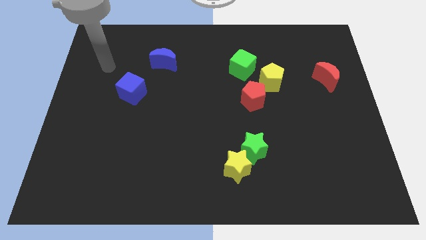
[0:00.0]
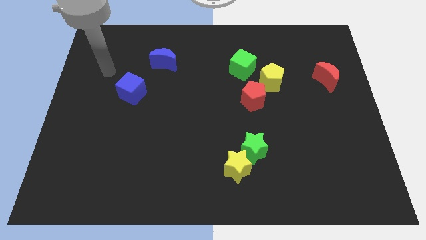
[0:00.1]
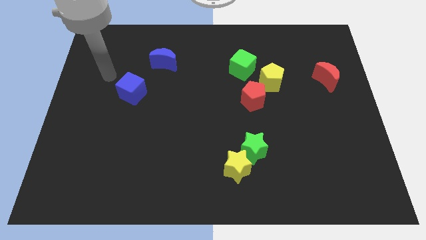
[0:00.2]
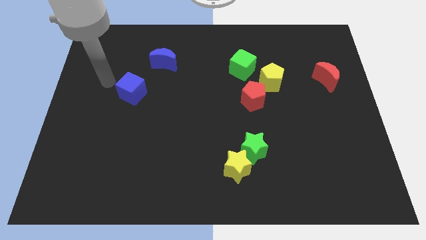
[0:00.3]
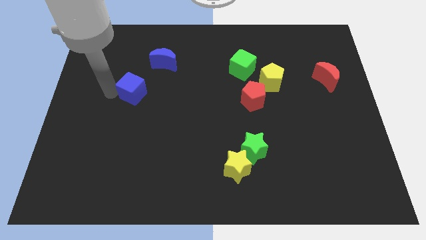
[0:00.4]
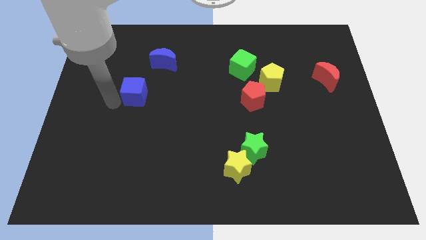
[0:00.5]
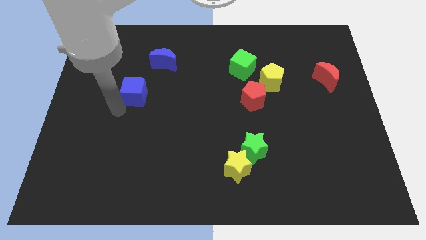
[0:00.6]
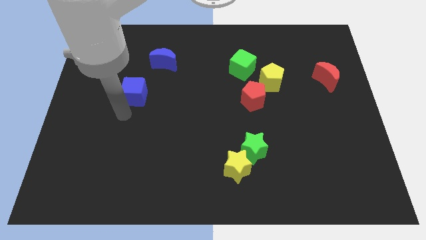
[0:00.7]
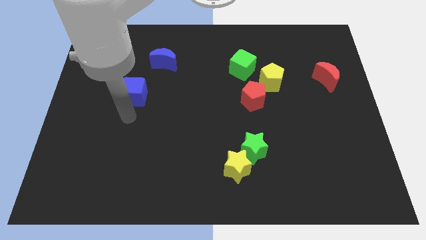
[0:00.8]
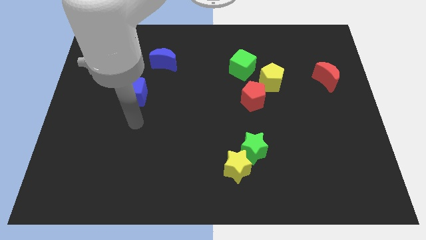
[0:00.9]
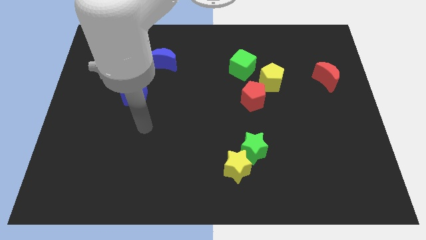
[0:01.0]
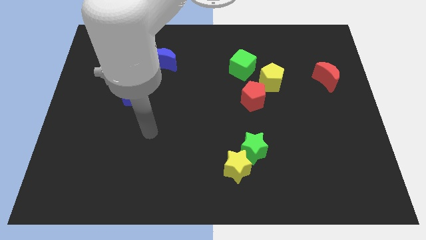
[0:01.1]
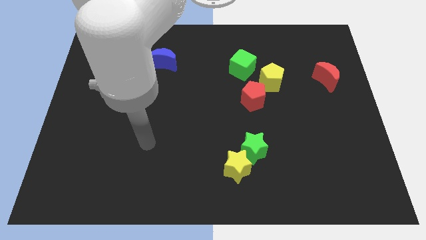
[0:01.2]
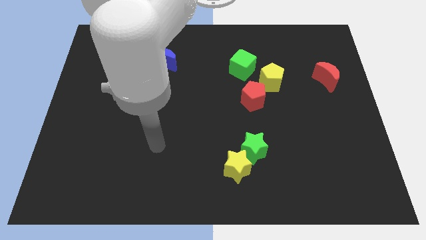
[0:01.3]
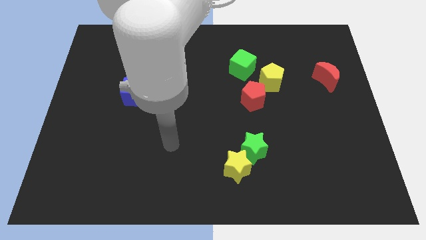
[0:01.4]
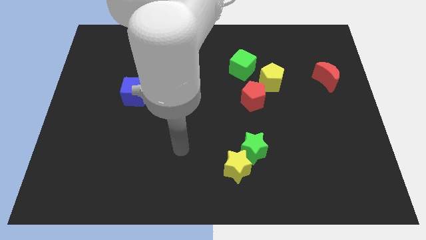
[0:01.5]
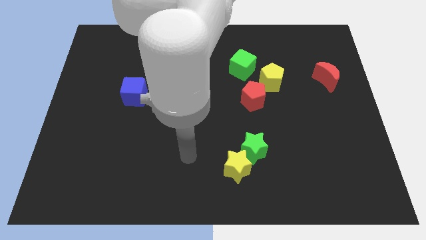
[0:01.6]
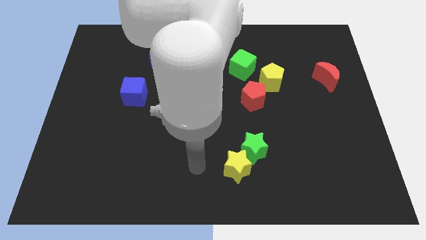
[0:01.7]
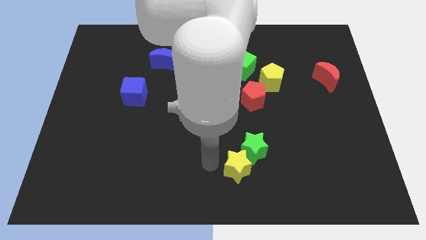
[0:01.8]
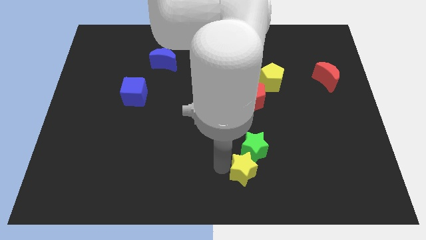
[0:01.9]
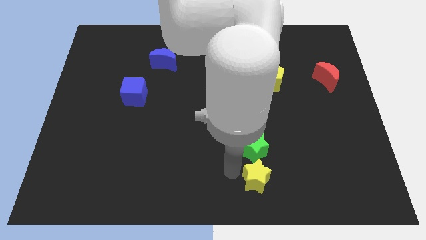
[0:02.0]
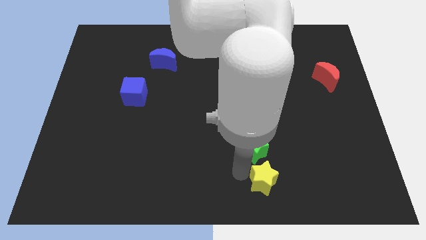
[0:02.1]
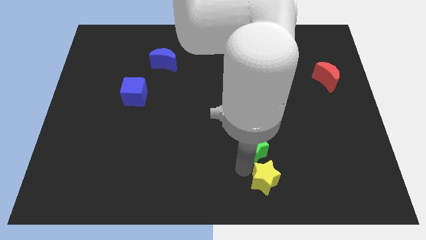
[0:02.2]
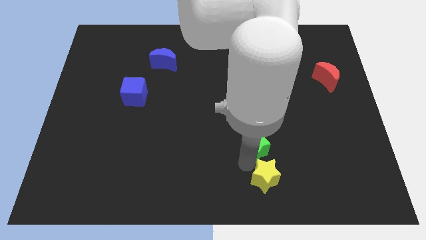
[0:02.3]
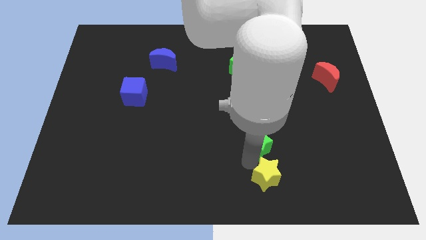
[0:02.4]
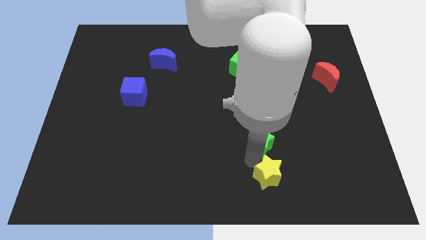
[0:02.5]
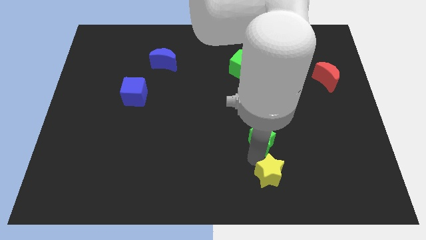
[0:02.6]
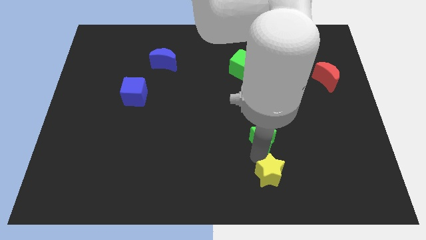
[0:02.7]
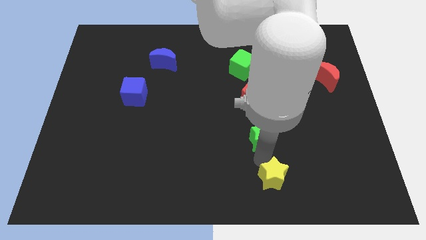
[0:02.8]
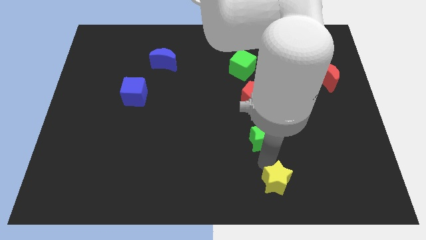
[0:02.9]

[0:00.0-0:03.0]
pull the green star apart from the yellow star

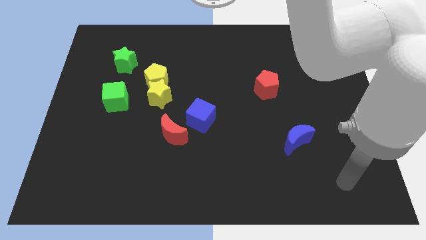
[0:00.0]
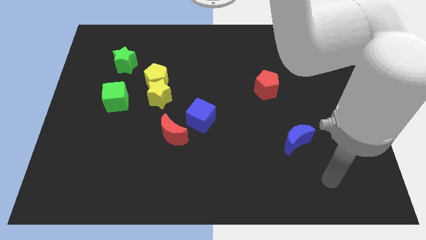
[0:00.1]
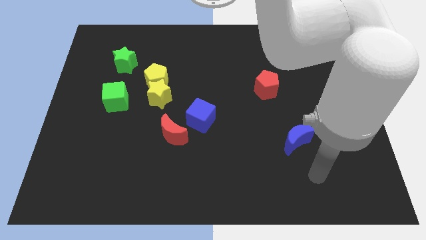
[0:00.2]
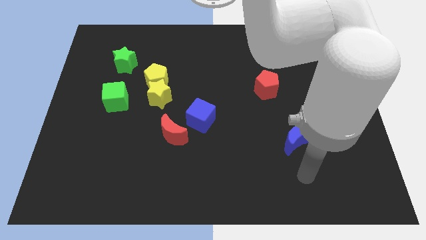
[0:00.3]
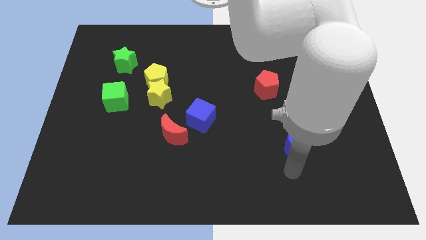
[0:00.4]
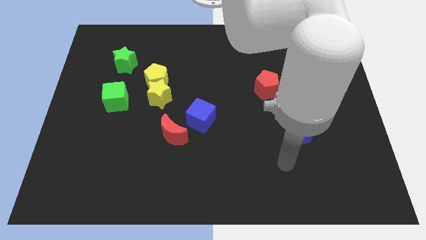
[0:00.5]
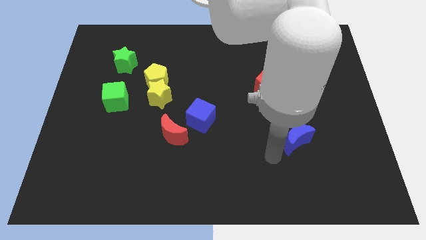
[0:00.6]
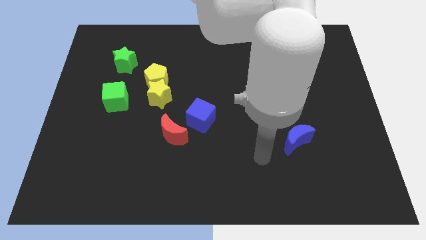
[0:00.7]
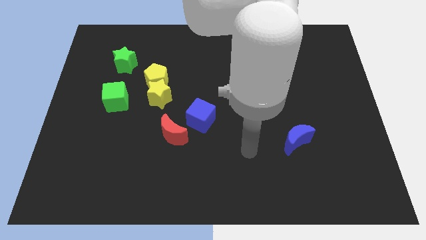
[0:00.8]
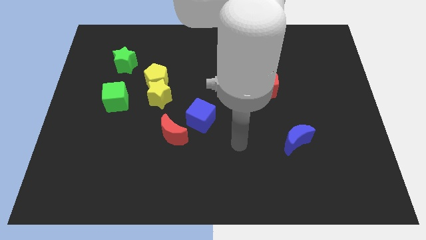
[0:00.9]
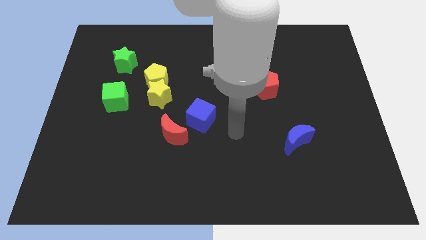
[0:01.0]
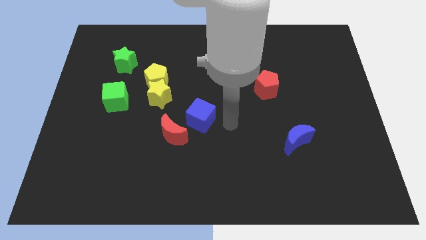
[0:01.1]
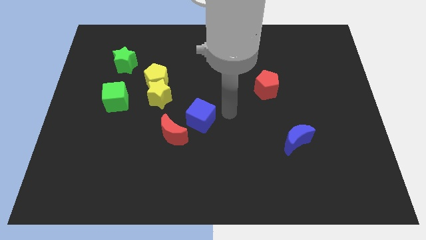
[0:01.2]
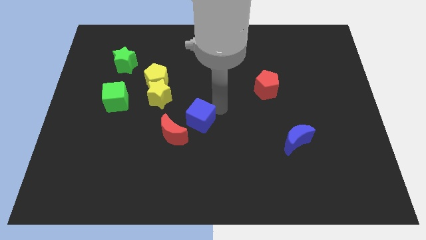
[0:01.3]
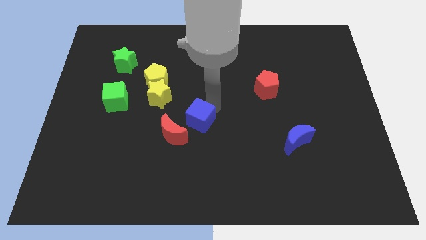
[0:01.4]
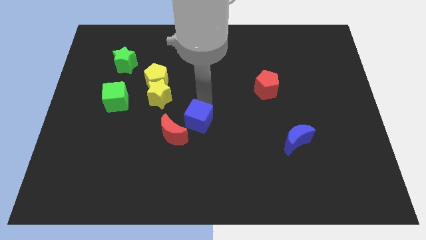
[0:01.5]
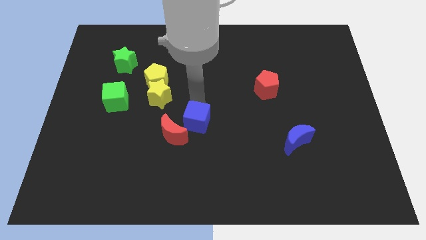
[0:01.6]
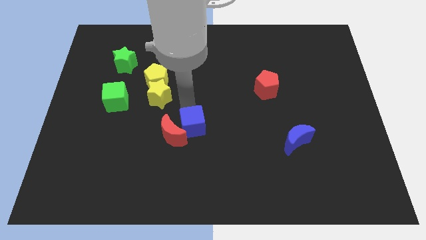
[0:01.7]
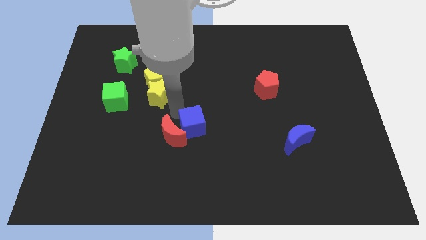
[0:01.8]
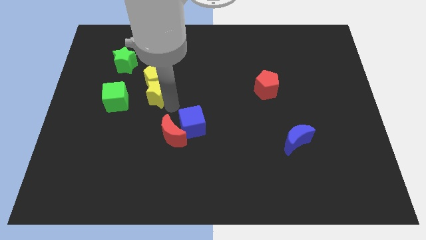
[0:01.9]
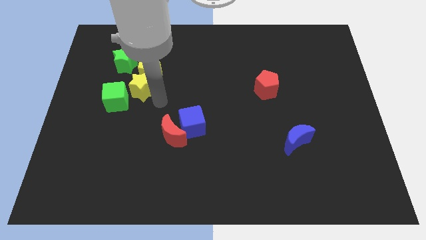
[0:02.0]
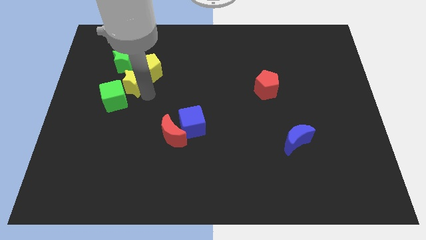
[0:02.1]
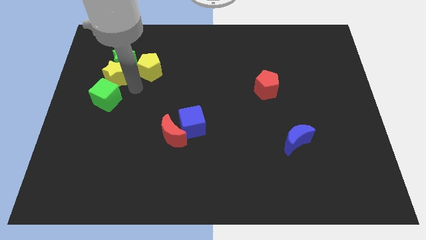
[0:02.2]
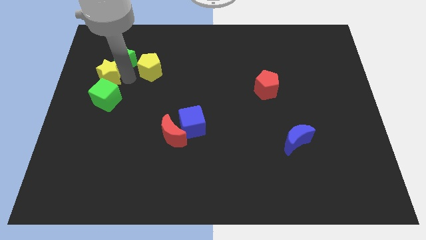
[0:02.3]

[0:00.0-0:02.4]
pull the yellow pentagon apart from the yellow star

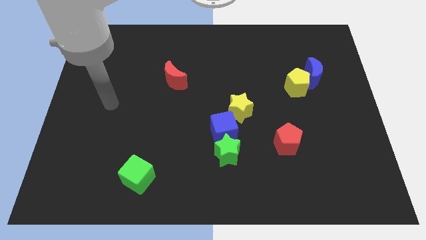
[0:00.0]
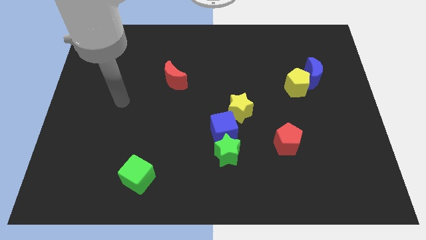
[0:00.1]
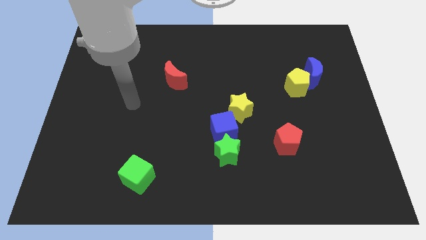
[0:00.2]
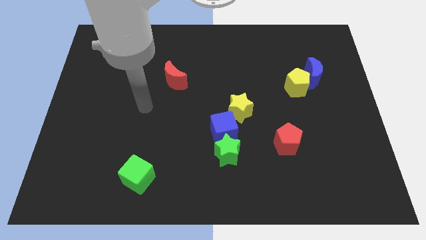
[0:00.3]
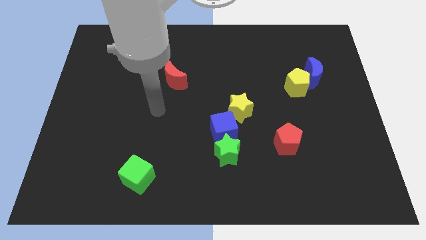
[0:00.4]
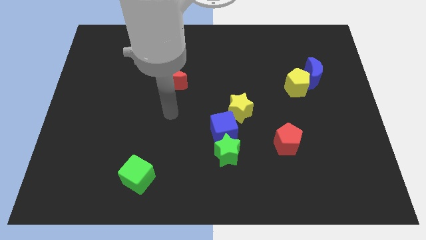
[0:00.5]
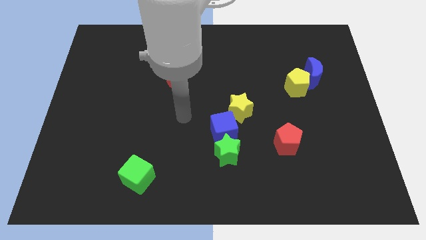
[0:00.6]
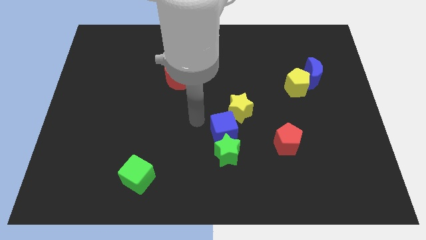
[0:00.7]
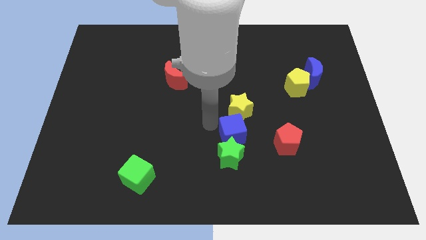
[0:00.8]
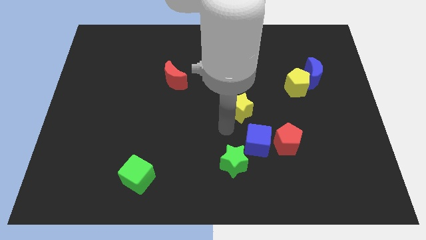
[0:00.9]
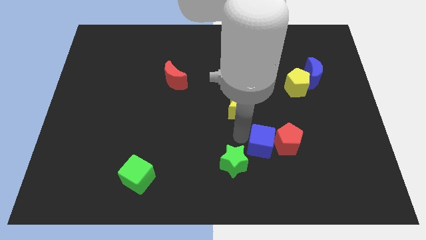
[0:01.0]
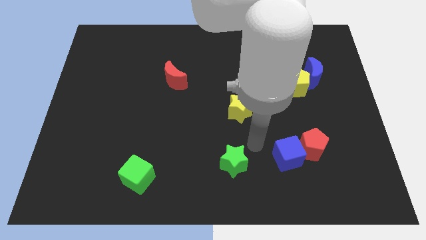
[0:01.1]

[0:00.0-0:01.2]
move the green star away from the blue cube

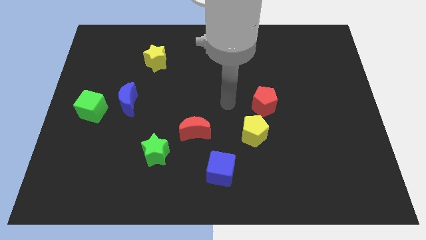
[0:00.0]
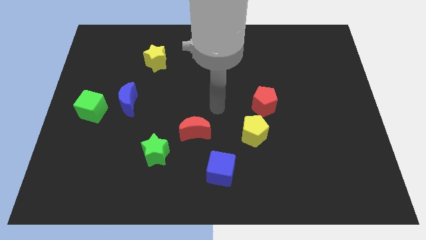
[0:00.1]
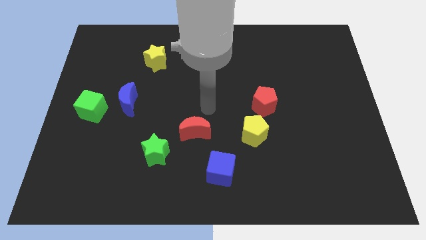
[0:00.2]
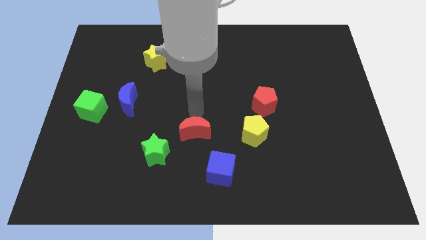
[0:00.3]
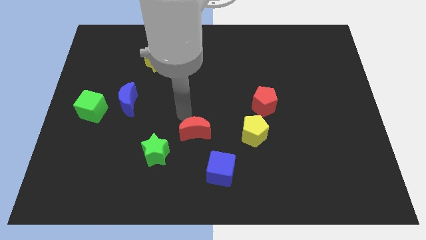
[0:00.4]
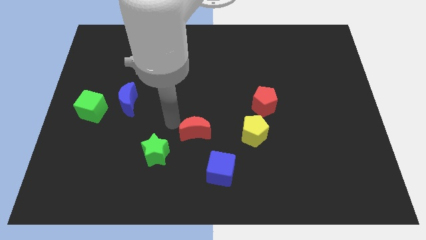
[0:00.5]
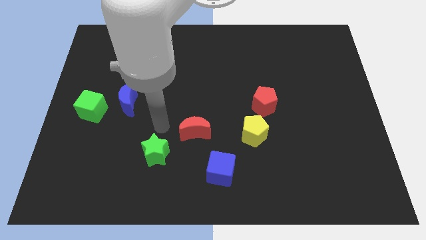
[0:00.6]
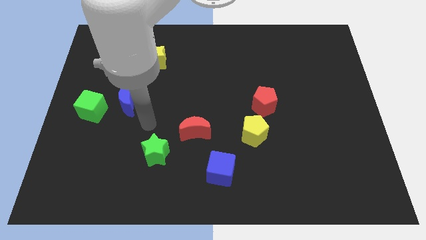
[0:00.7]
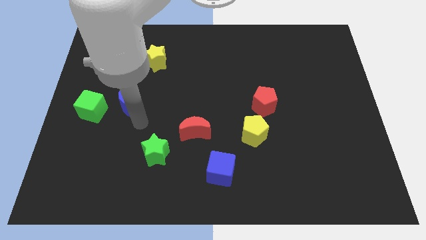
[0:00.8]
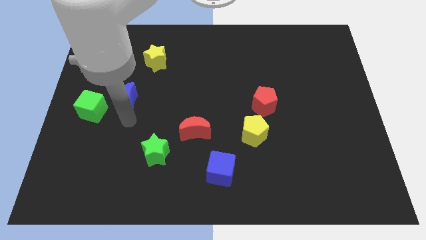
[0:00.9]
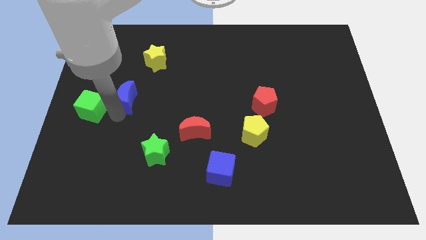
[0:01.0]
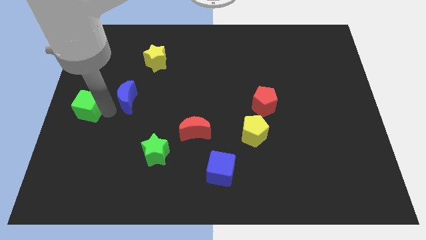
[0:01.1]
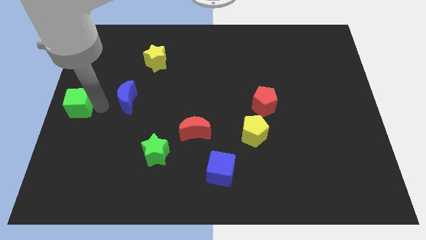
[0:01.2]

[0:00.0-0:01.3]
move the blue moon away from the green cube

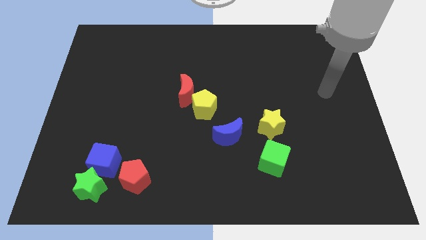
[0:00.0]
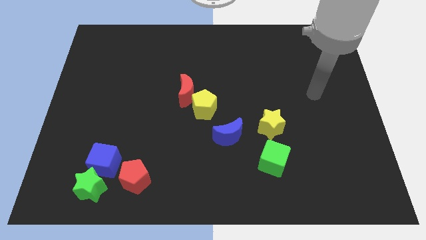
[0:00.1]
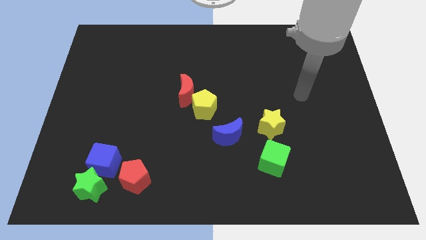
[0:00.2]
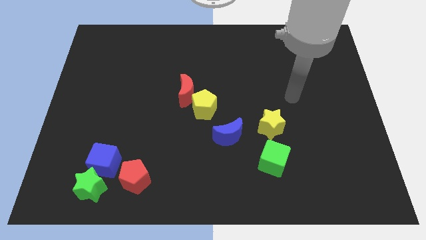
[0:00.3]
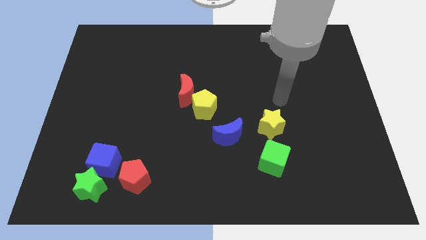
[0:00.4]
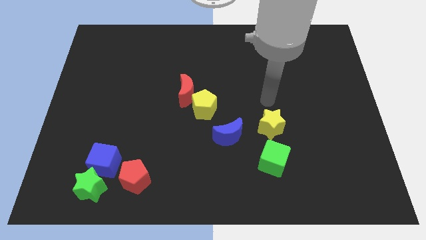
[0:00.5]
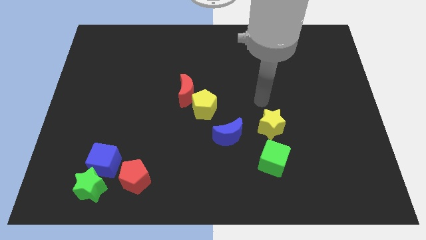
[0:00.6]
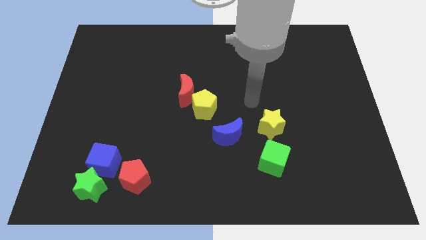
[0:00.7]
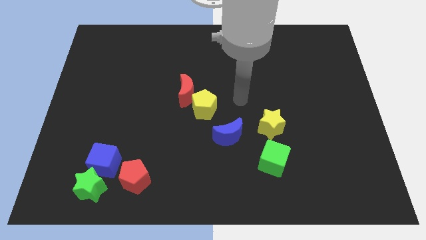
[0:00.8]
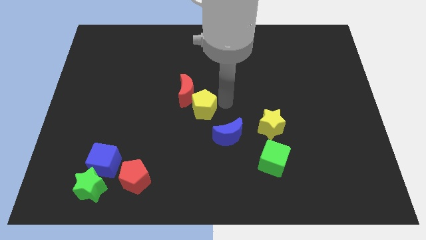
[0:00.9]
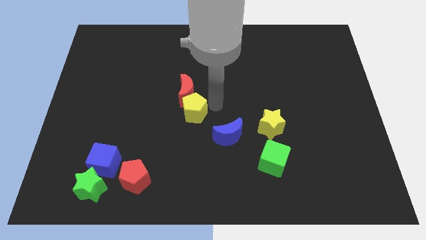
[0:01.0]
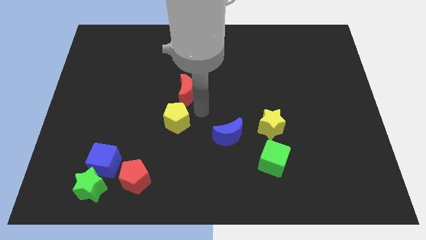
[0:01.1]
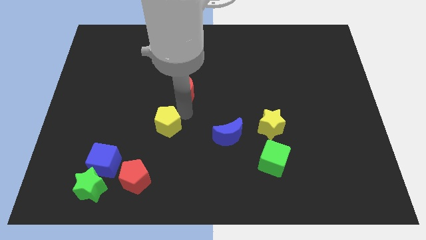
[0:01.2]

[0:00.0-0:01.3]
separate the red moon from the yellow pentagon
